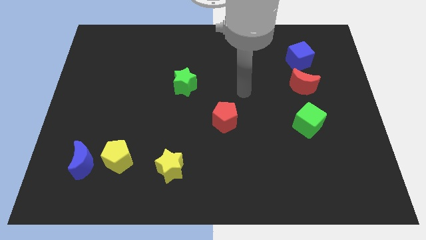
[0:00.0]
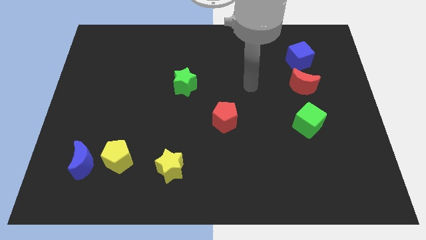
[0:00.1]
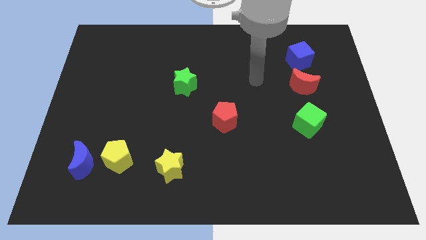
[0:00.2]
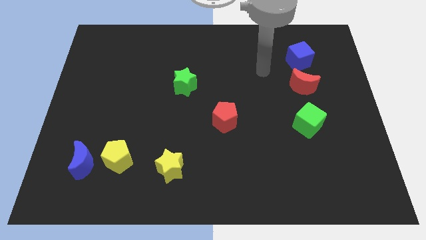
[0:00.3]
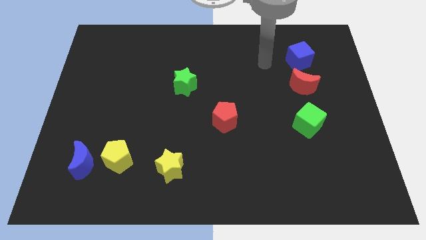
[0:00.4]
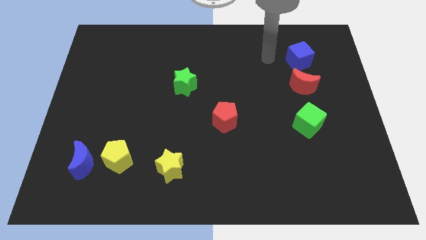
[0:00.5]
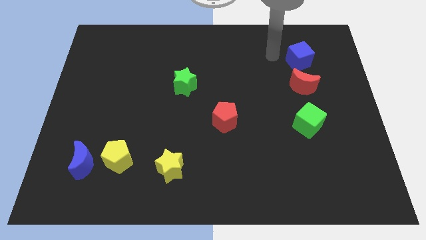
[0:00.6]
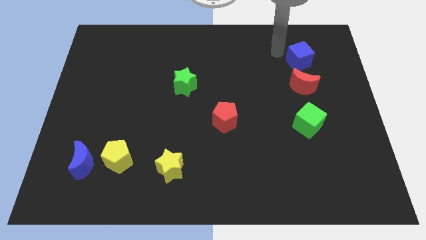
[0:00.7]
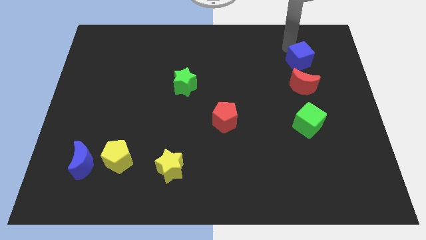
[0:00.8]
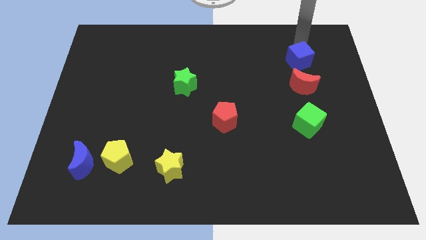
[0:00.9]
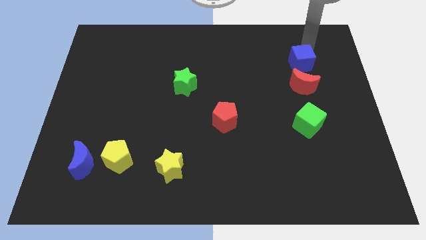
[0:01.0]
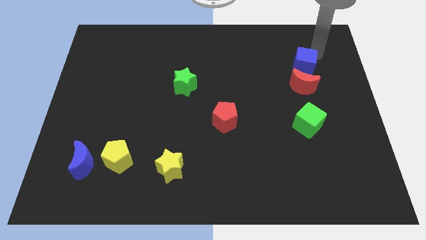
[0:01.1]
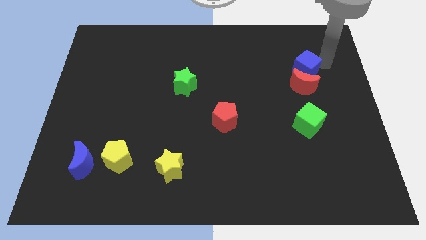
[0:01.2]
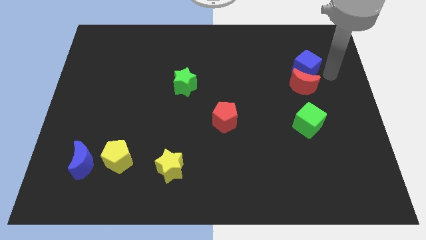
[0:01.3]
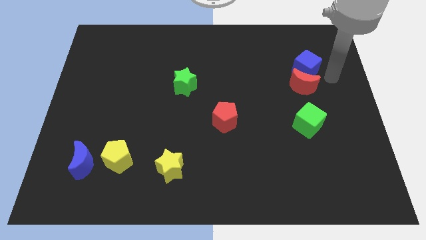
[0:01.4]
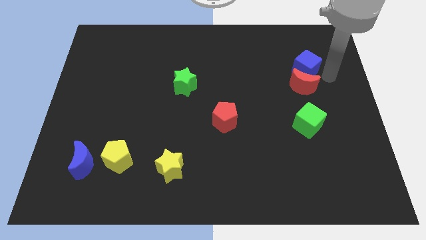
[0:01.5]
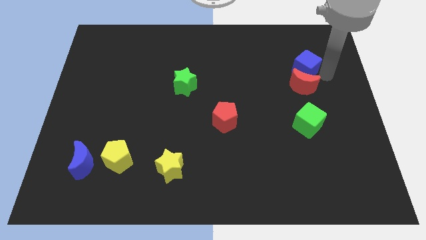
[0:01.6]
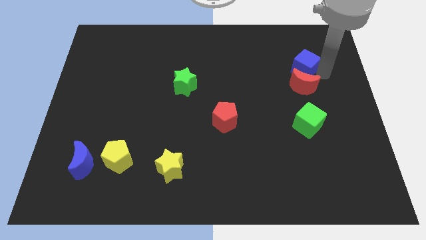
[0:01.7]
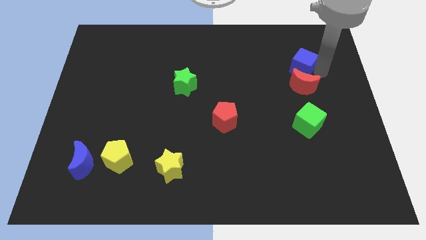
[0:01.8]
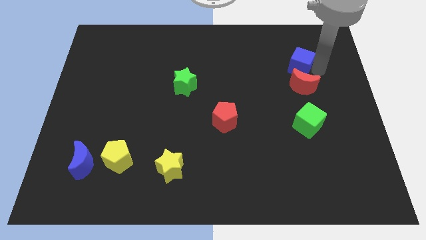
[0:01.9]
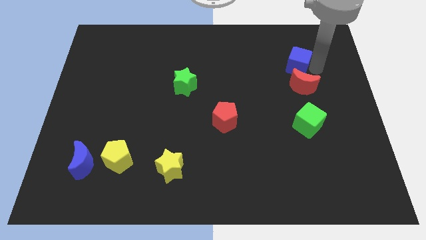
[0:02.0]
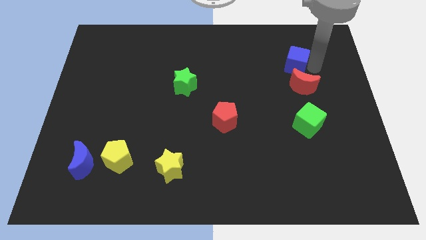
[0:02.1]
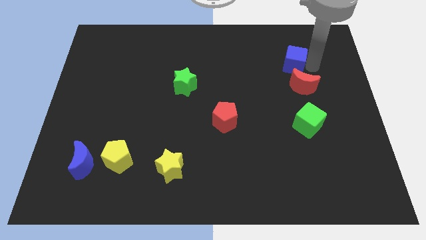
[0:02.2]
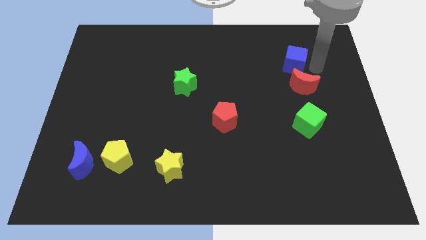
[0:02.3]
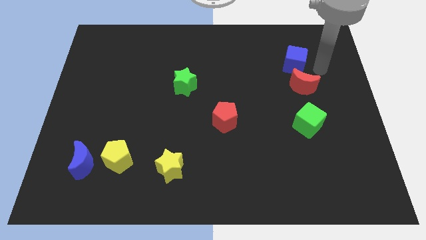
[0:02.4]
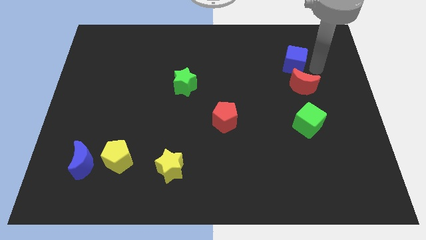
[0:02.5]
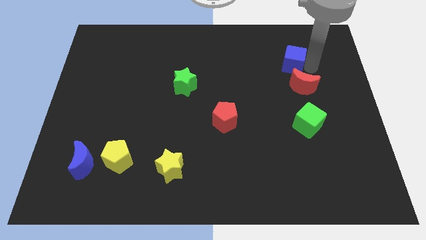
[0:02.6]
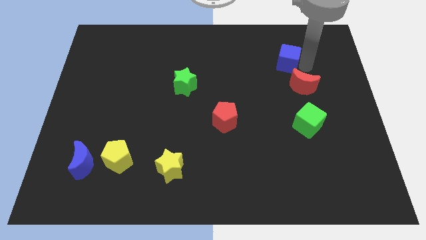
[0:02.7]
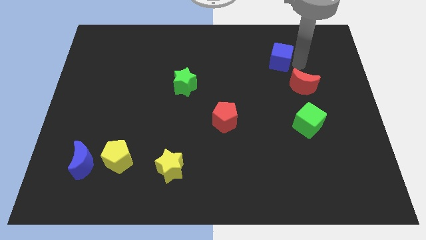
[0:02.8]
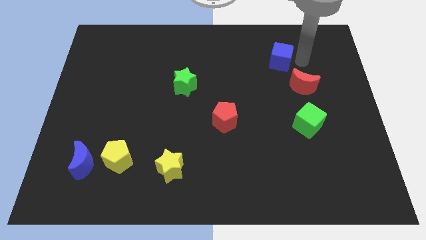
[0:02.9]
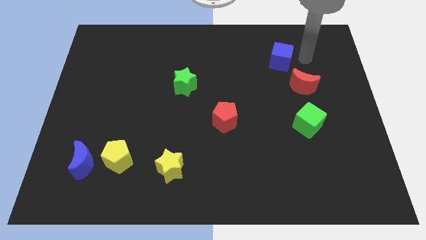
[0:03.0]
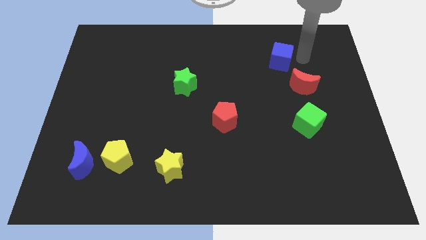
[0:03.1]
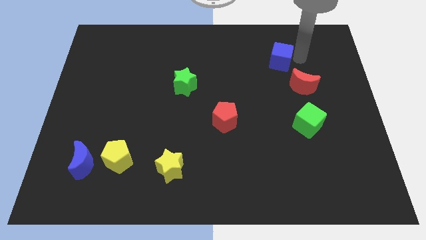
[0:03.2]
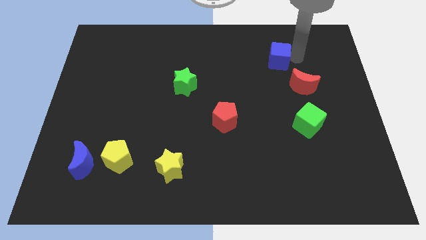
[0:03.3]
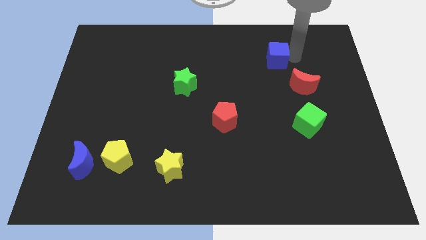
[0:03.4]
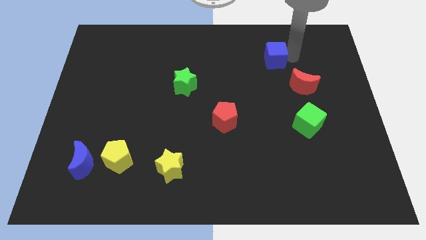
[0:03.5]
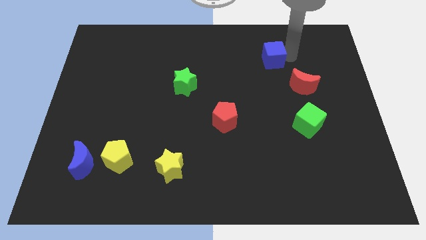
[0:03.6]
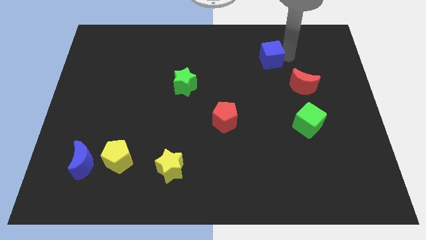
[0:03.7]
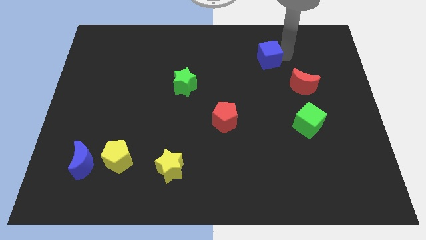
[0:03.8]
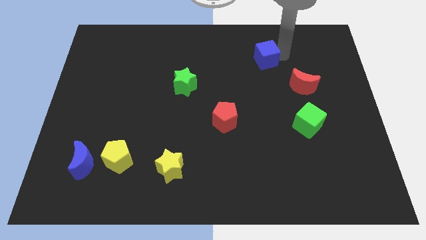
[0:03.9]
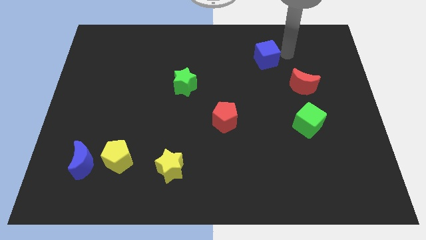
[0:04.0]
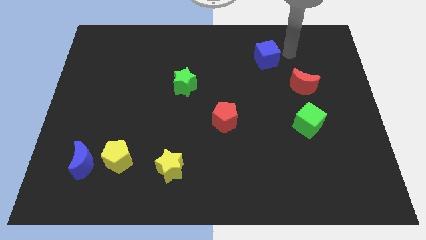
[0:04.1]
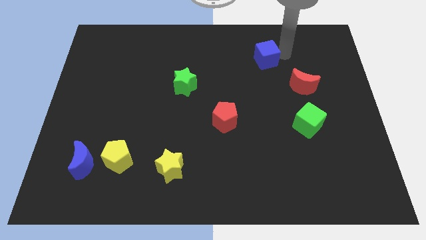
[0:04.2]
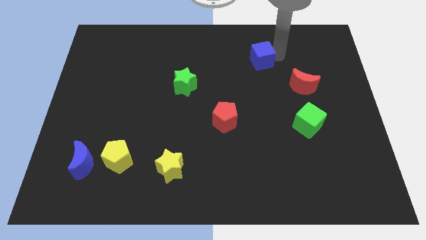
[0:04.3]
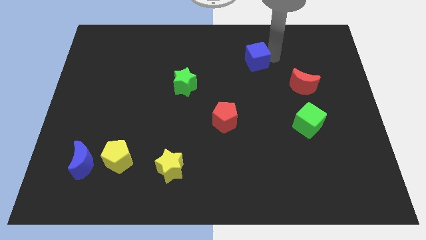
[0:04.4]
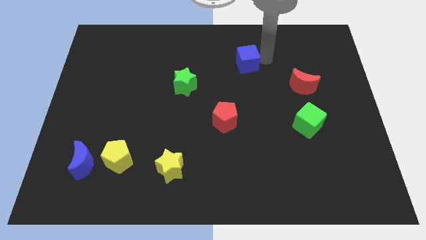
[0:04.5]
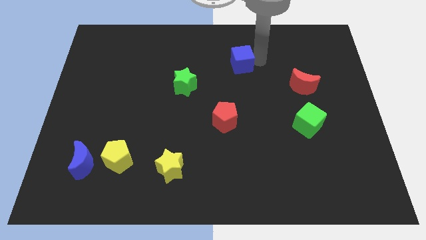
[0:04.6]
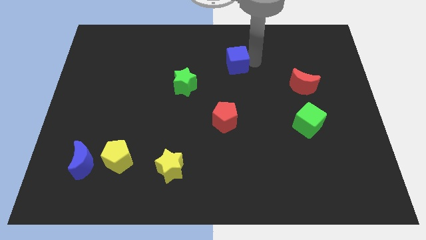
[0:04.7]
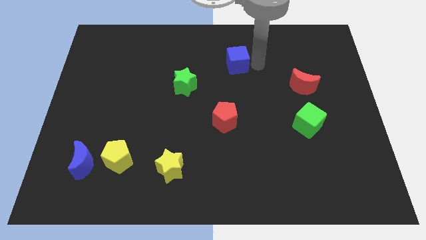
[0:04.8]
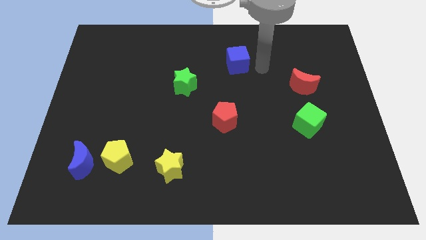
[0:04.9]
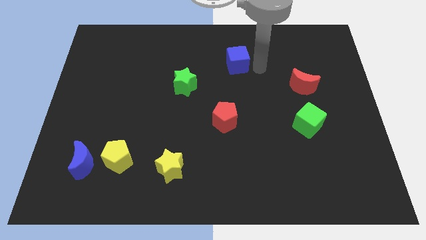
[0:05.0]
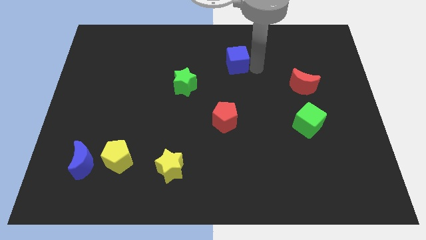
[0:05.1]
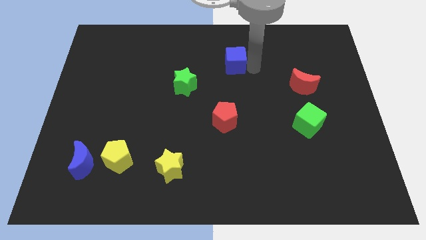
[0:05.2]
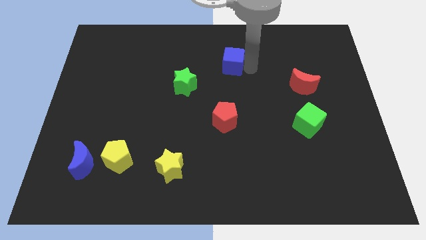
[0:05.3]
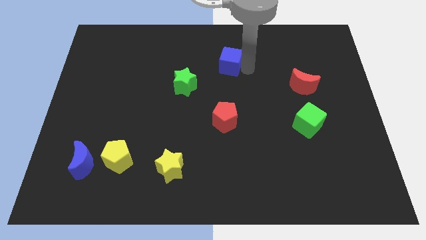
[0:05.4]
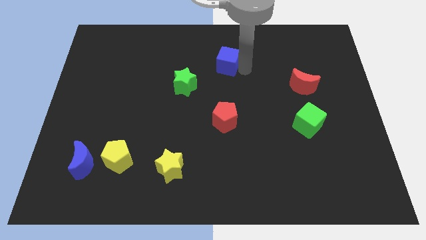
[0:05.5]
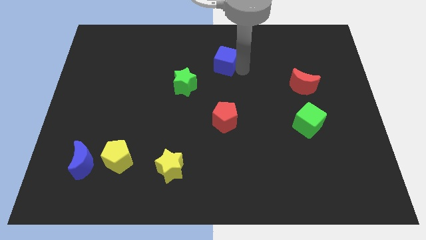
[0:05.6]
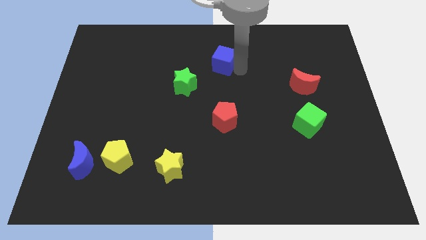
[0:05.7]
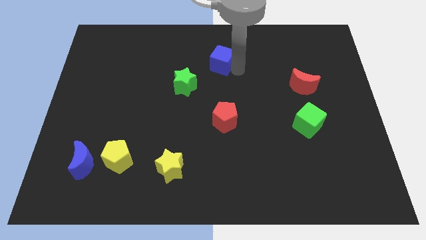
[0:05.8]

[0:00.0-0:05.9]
move the blue cube left

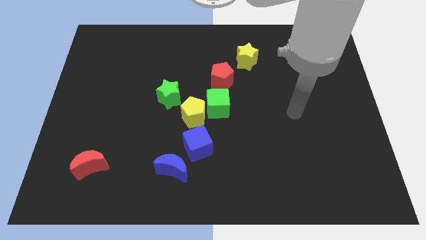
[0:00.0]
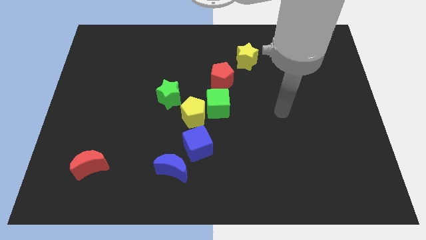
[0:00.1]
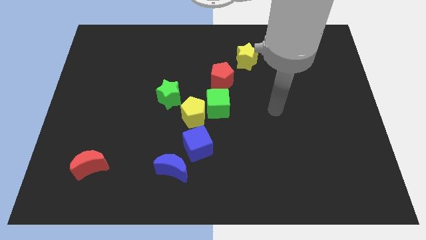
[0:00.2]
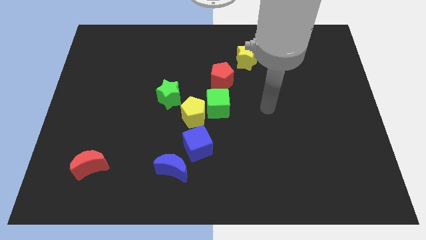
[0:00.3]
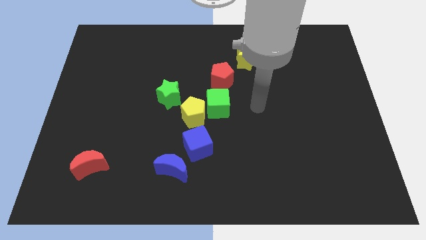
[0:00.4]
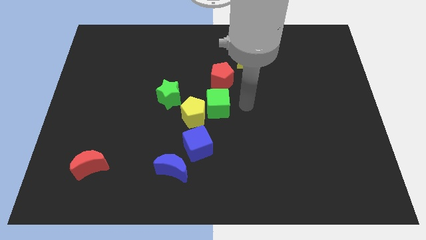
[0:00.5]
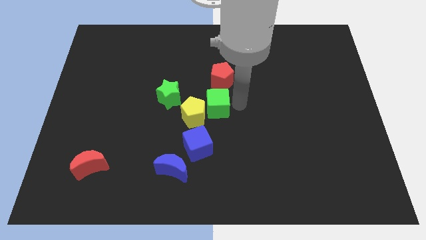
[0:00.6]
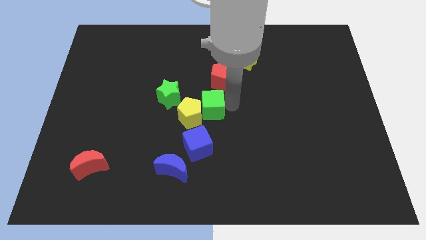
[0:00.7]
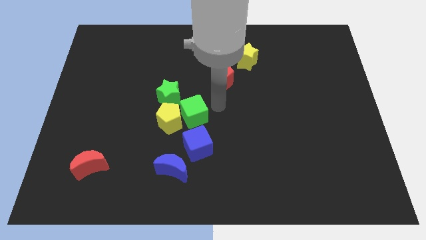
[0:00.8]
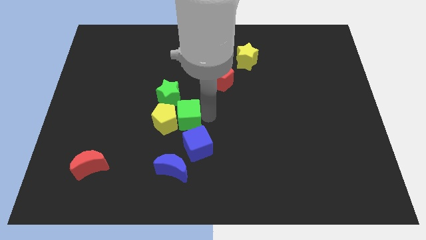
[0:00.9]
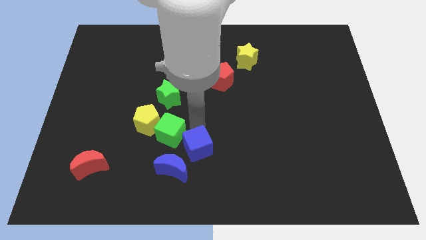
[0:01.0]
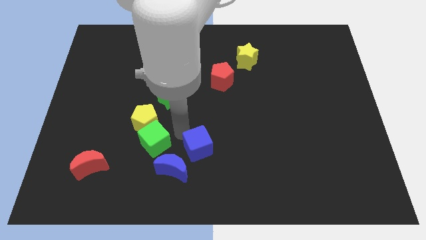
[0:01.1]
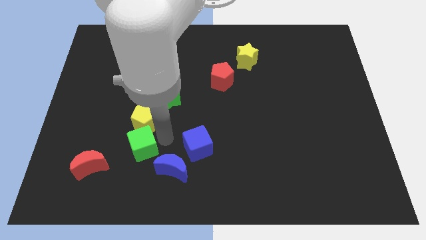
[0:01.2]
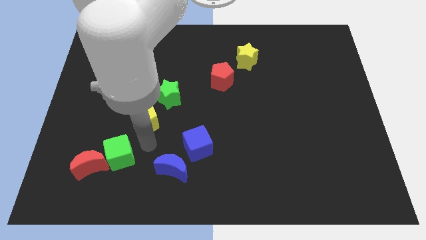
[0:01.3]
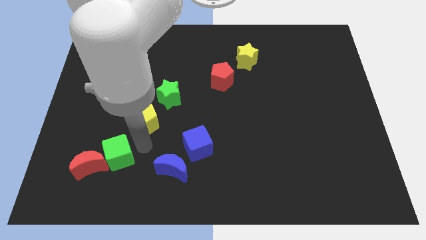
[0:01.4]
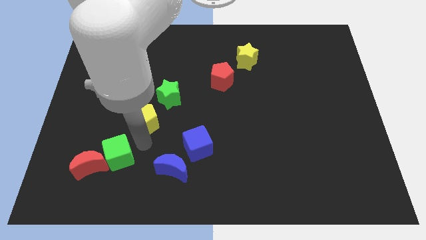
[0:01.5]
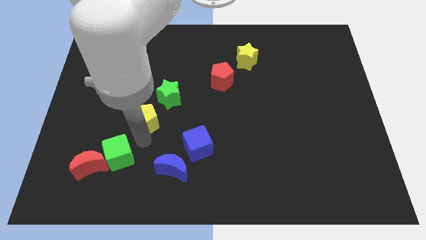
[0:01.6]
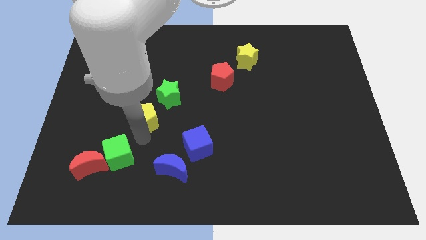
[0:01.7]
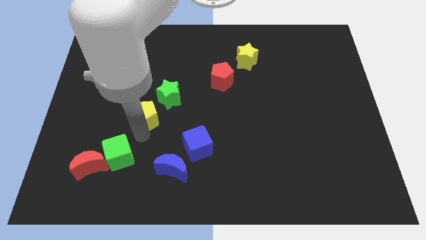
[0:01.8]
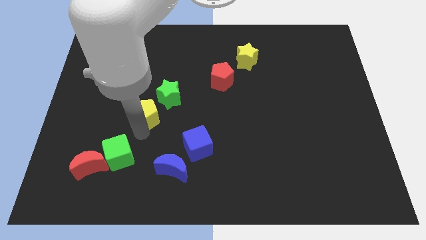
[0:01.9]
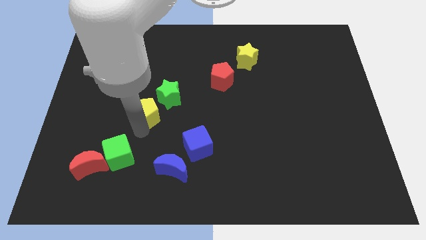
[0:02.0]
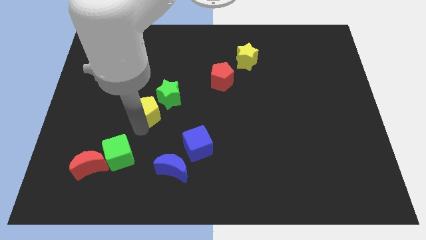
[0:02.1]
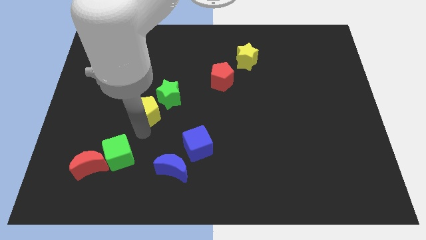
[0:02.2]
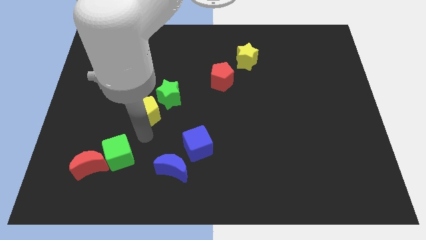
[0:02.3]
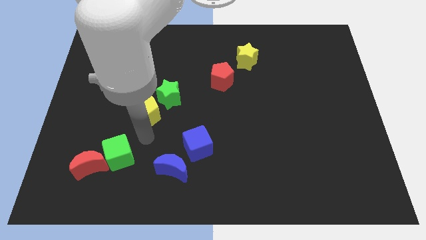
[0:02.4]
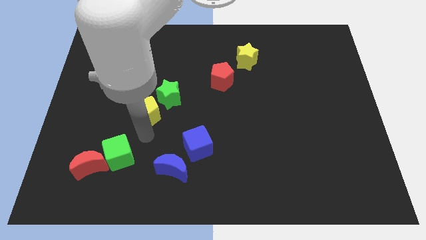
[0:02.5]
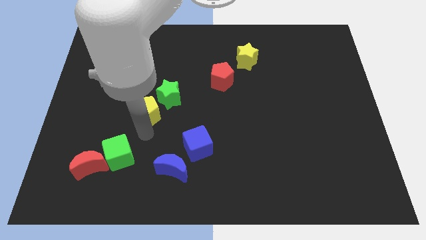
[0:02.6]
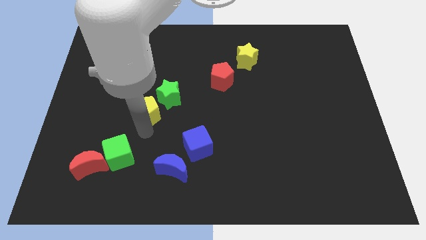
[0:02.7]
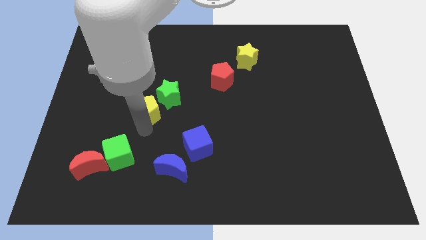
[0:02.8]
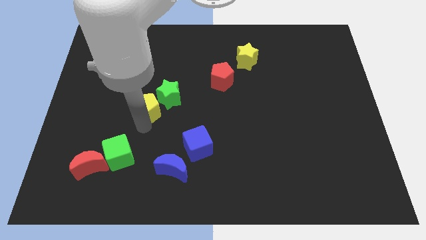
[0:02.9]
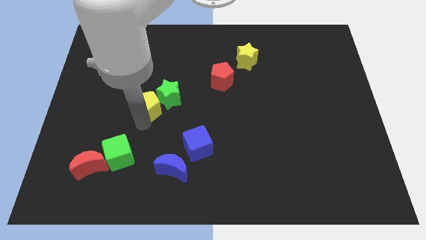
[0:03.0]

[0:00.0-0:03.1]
slide the yellow pentagon slightly diagonally up and left
